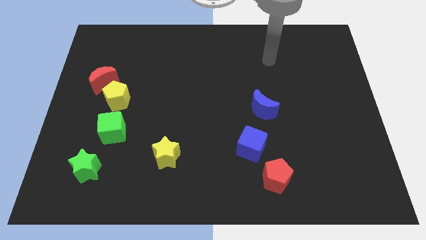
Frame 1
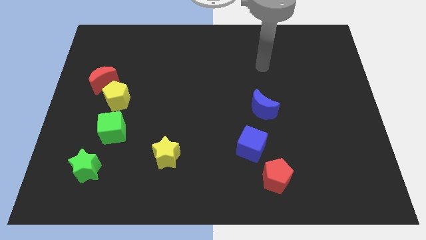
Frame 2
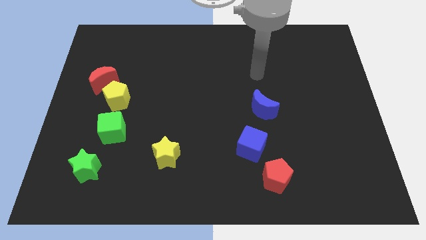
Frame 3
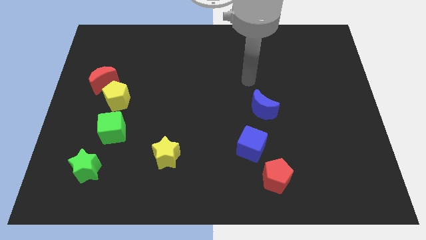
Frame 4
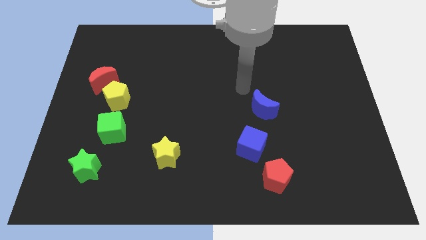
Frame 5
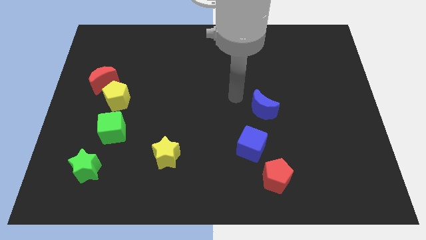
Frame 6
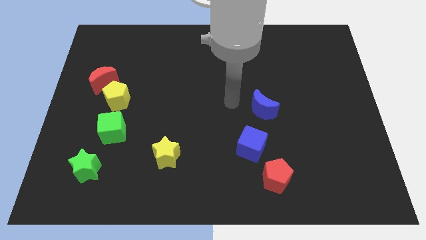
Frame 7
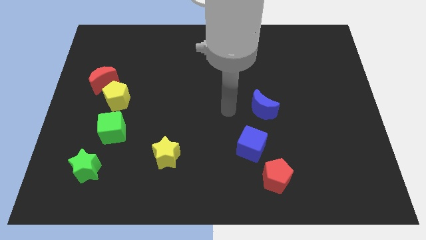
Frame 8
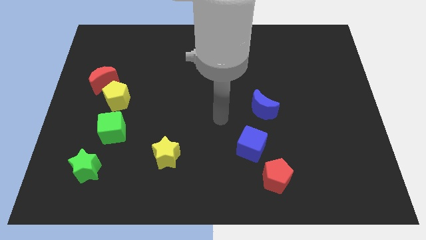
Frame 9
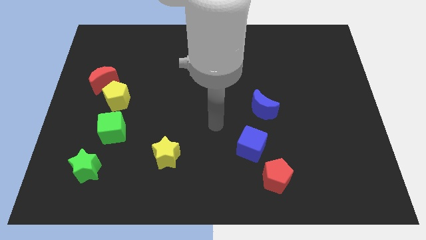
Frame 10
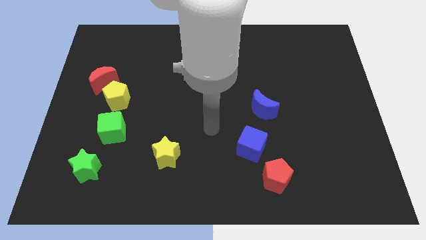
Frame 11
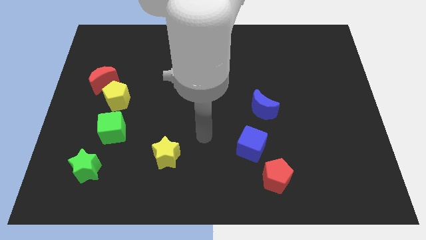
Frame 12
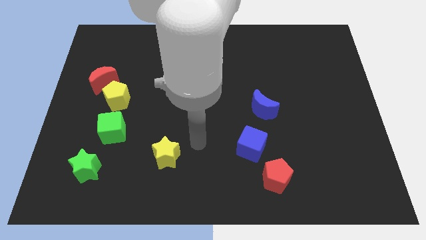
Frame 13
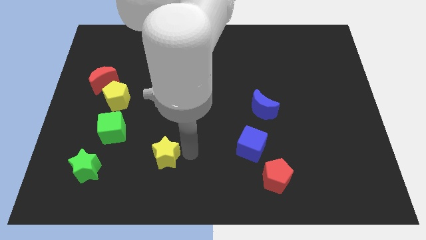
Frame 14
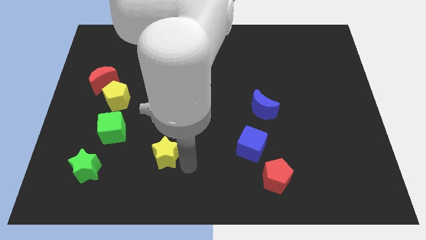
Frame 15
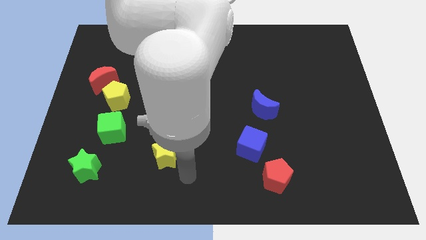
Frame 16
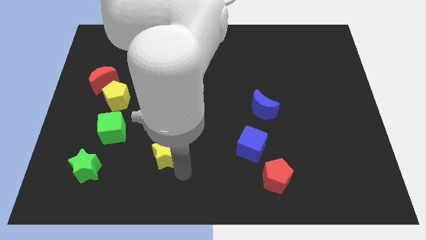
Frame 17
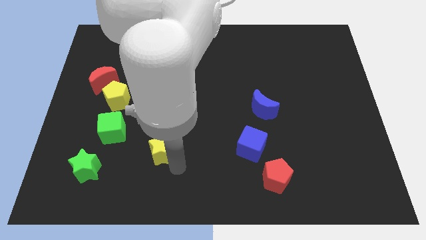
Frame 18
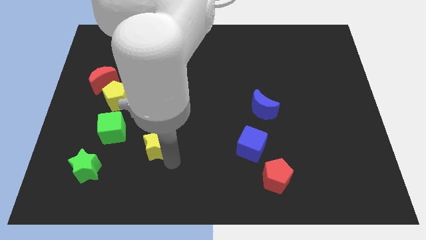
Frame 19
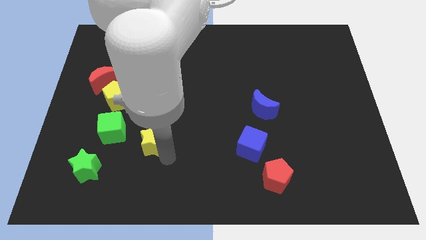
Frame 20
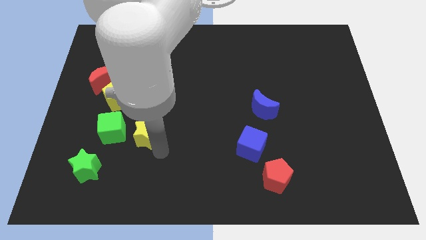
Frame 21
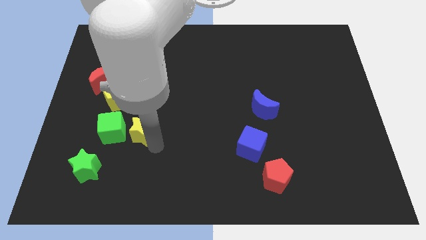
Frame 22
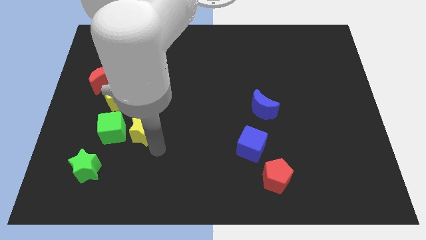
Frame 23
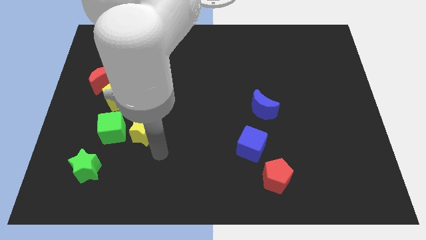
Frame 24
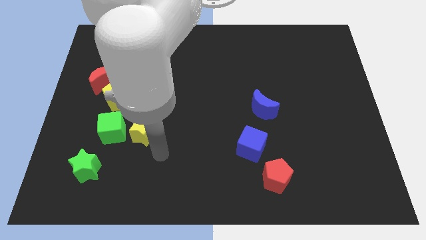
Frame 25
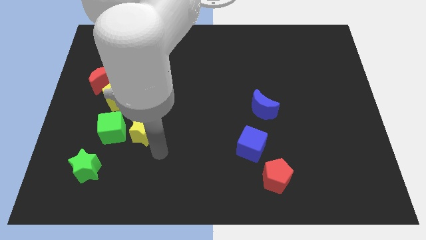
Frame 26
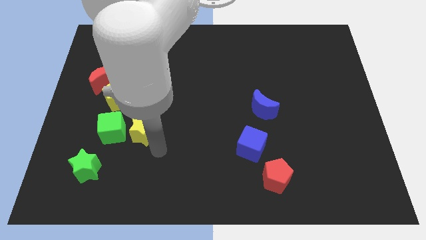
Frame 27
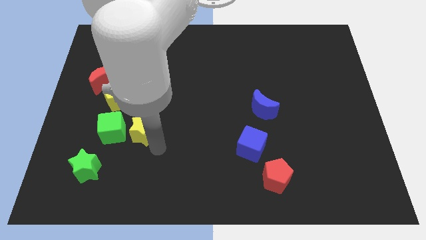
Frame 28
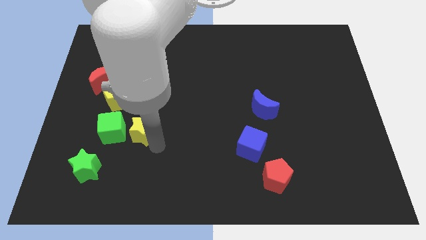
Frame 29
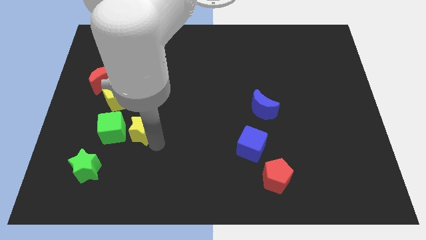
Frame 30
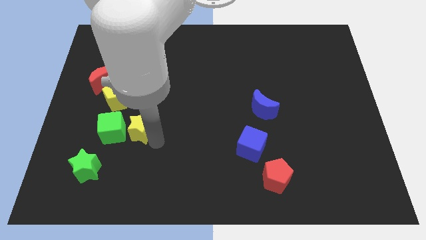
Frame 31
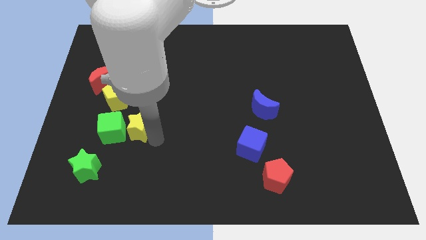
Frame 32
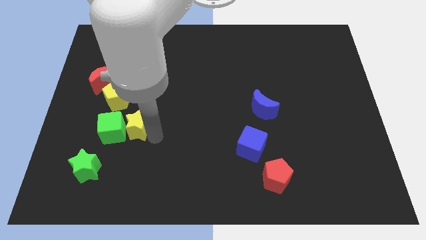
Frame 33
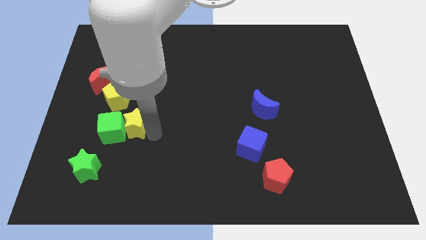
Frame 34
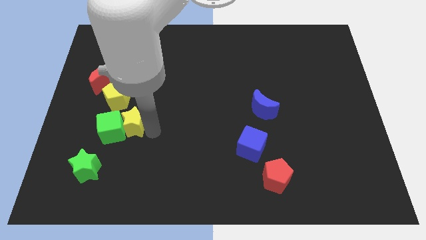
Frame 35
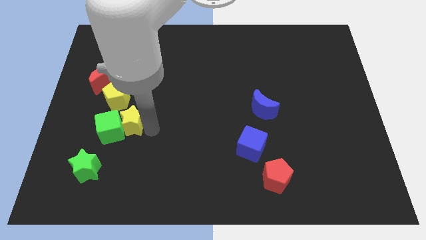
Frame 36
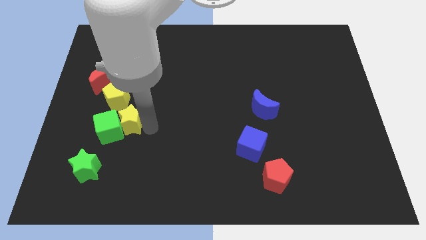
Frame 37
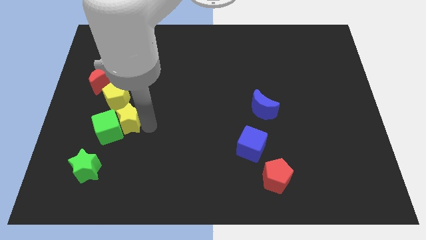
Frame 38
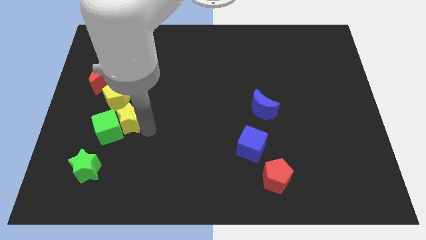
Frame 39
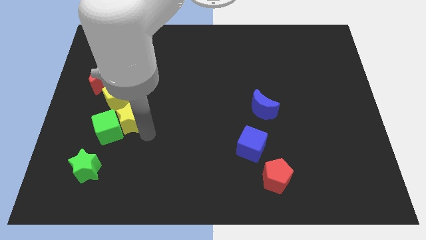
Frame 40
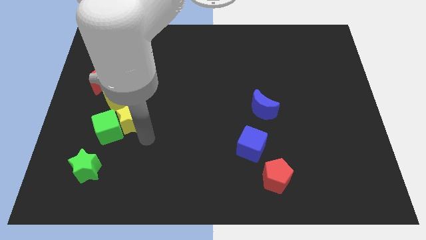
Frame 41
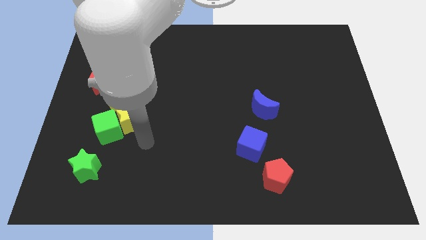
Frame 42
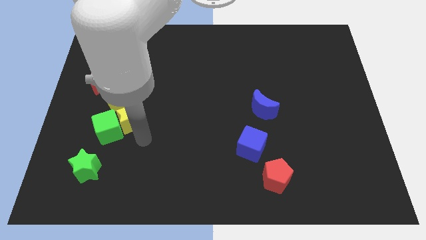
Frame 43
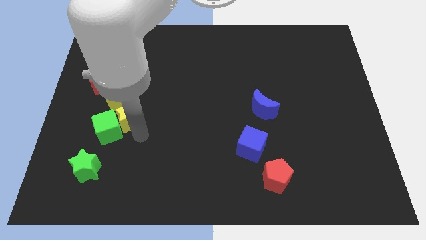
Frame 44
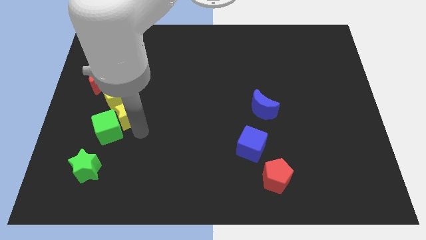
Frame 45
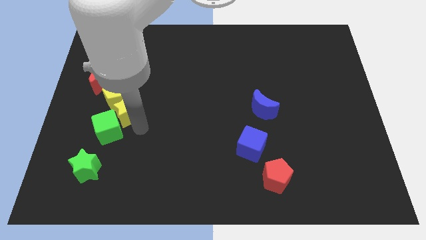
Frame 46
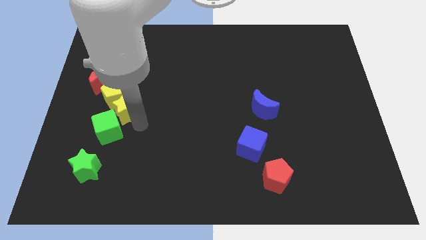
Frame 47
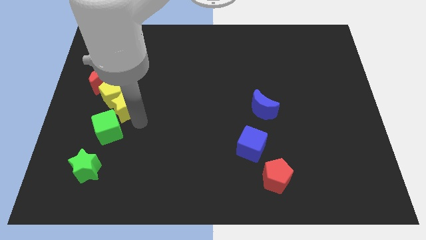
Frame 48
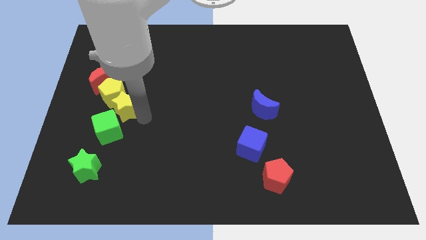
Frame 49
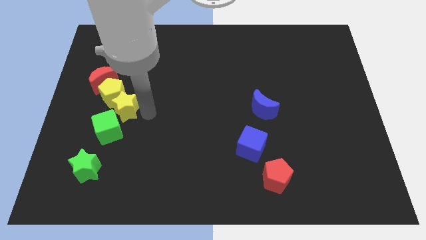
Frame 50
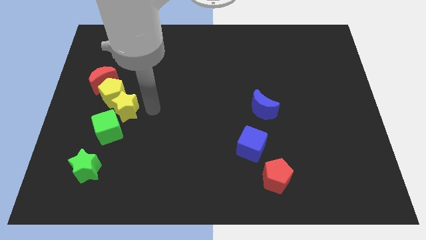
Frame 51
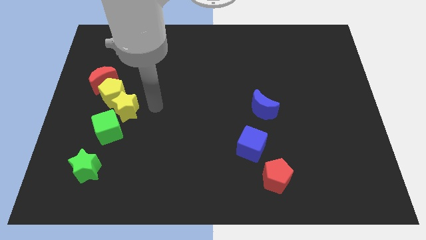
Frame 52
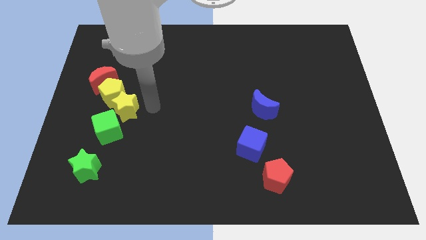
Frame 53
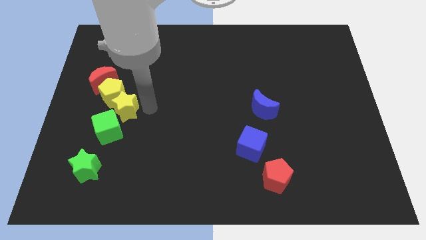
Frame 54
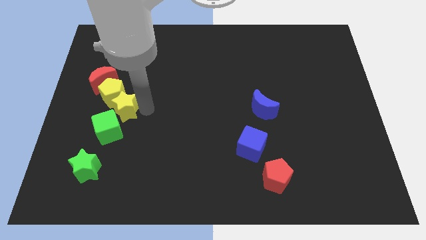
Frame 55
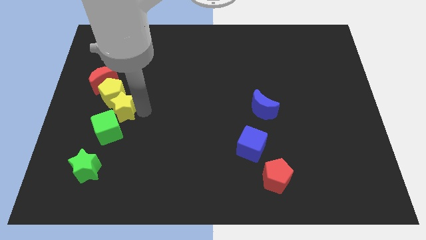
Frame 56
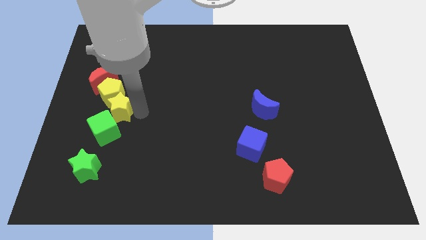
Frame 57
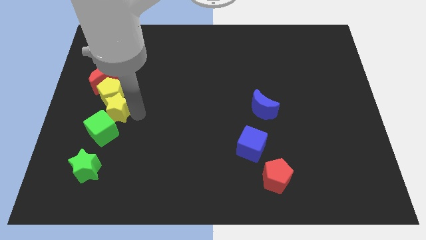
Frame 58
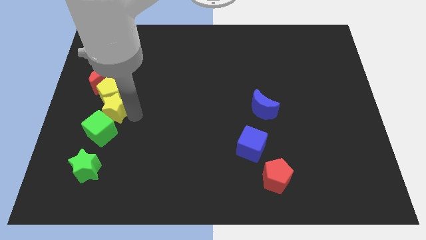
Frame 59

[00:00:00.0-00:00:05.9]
slide the yellow star to the bottom of the red moon

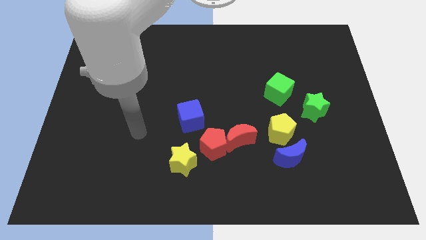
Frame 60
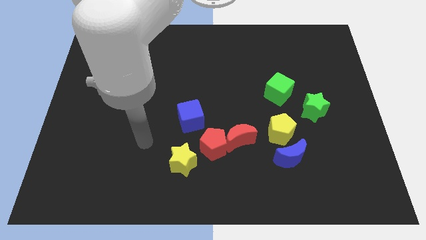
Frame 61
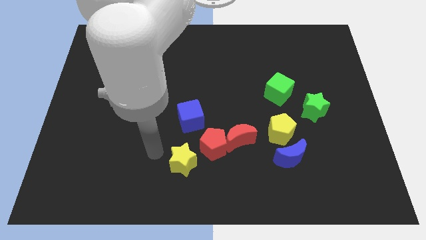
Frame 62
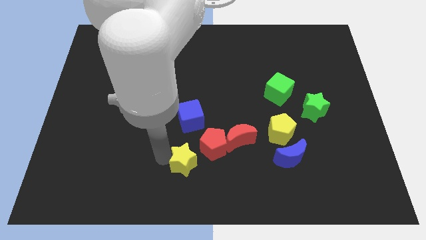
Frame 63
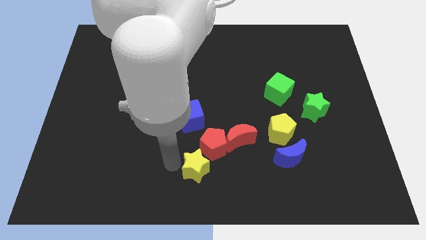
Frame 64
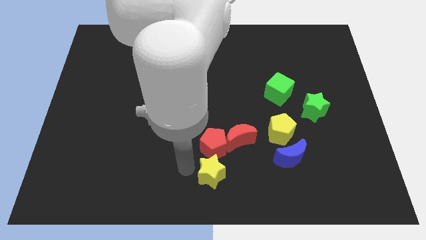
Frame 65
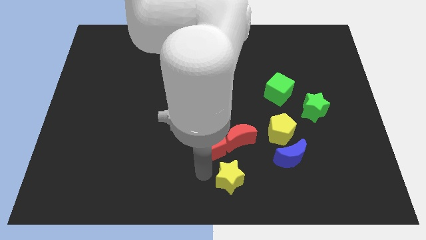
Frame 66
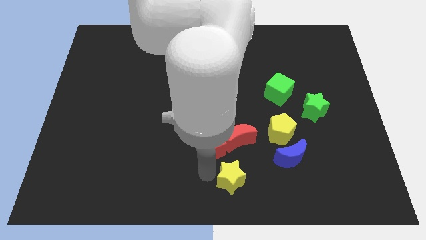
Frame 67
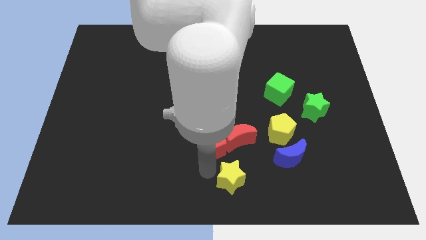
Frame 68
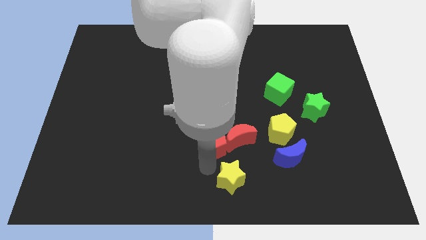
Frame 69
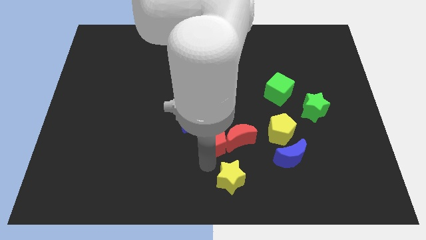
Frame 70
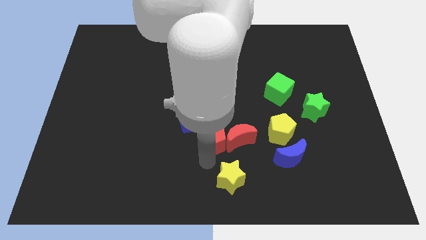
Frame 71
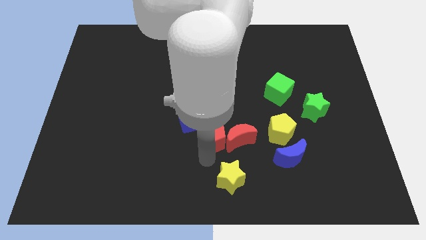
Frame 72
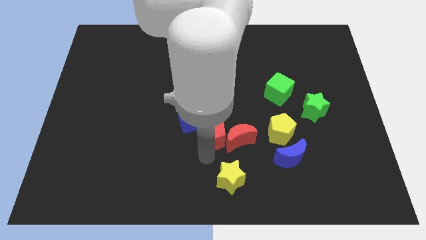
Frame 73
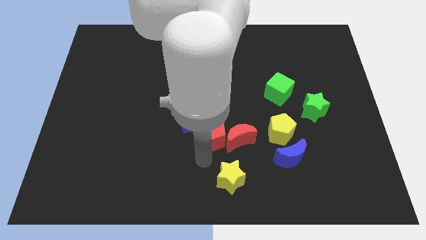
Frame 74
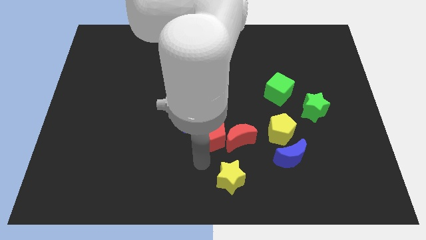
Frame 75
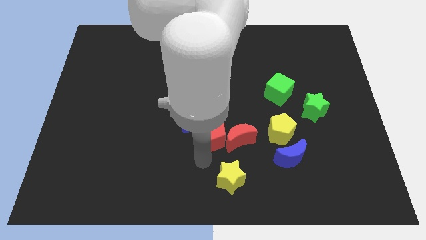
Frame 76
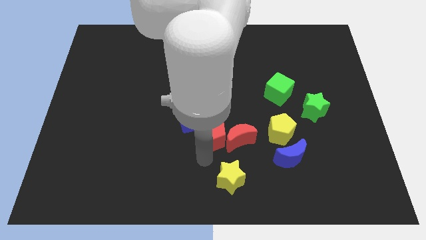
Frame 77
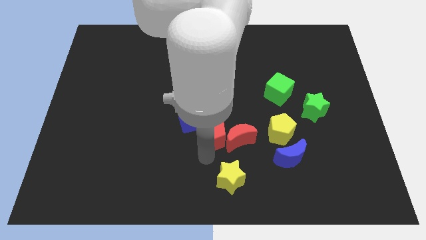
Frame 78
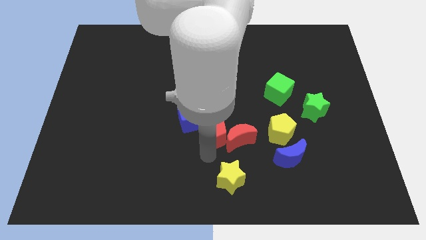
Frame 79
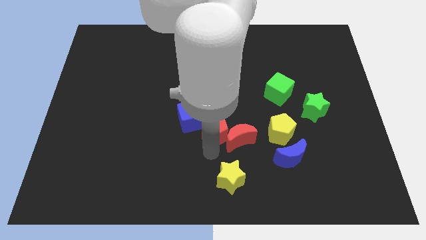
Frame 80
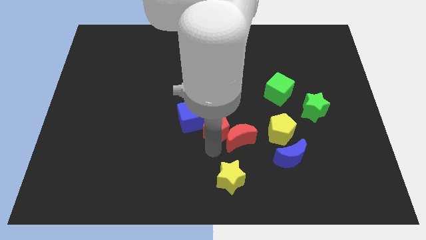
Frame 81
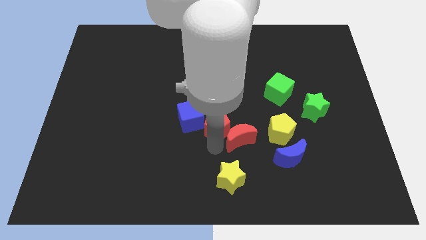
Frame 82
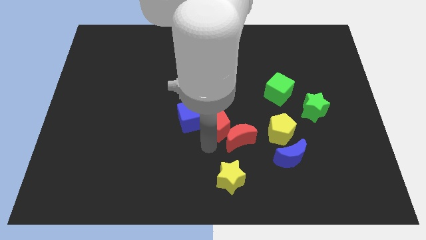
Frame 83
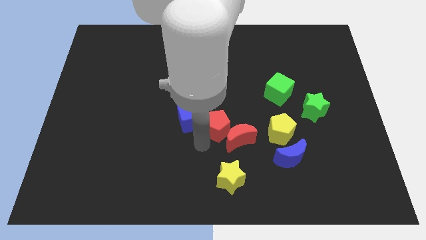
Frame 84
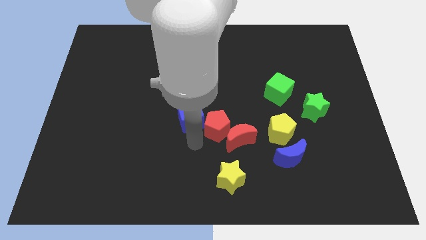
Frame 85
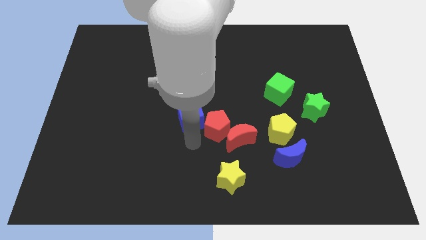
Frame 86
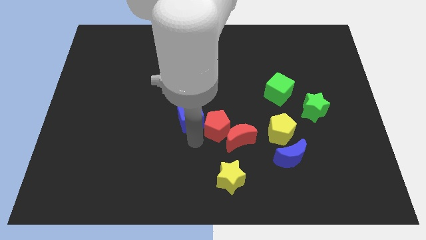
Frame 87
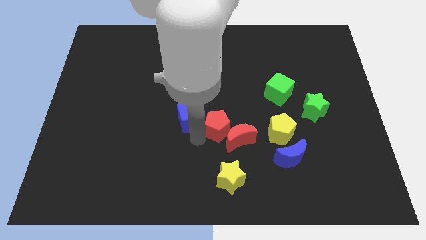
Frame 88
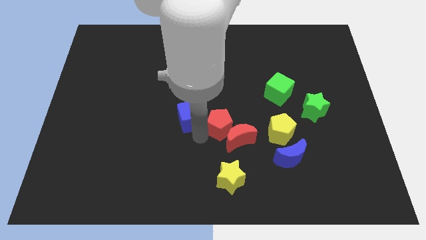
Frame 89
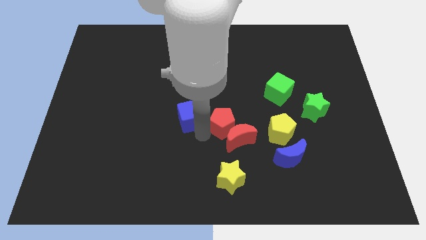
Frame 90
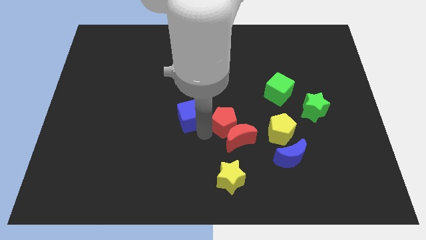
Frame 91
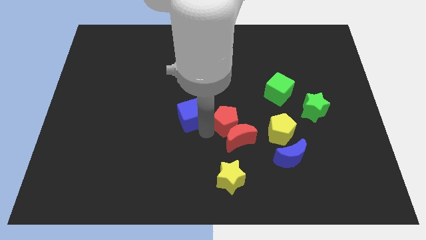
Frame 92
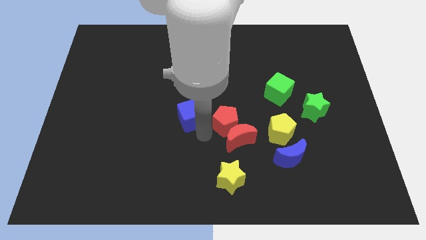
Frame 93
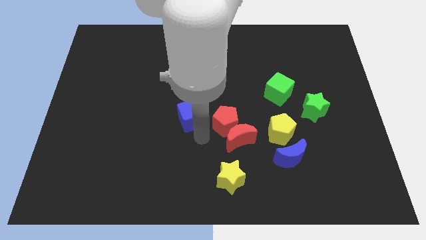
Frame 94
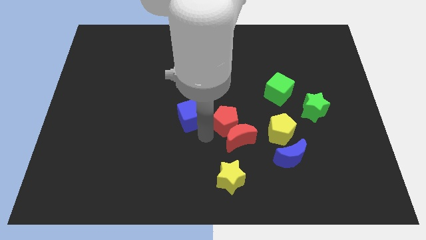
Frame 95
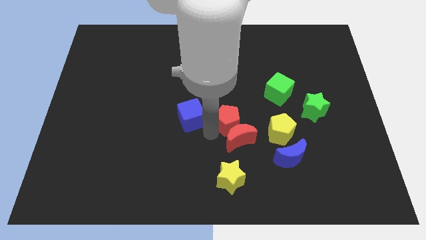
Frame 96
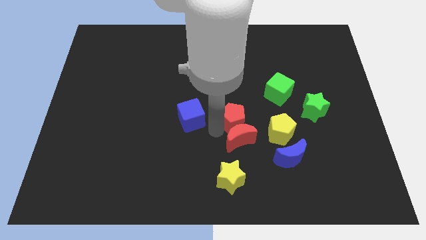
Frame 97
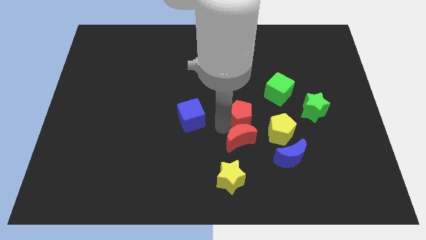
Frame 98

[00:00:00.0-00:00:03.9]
move the red pentagon to the top left side of the yellow pentagon
